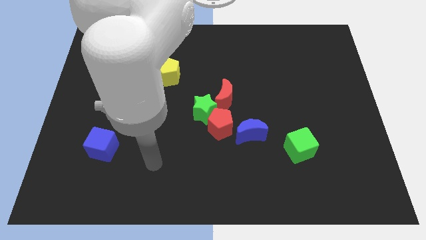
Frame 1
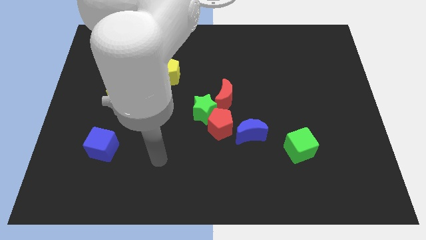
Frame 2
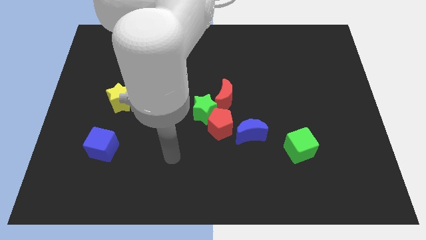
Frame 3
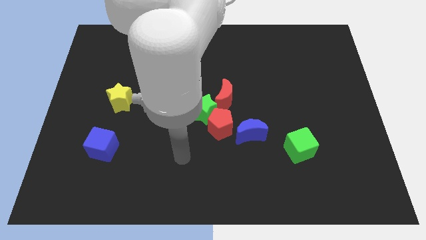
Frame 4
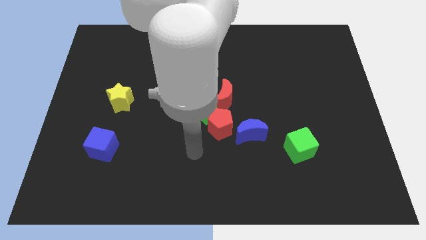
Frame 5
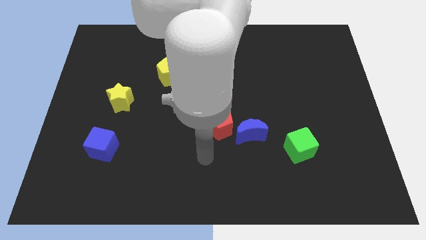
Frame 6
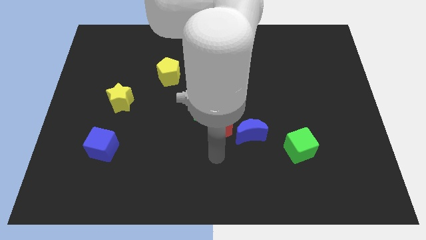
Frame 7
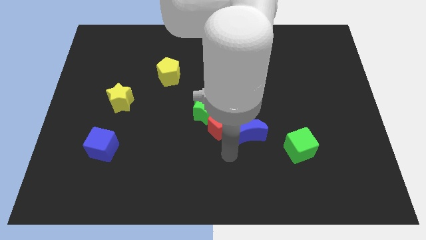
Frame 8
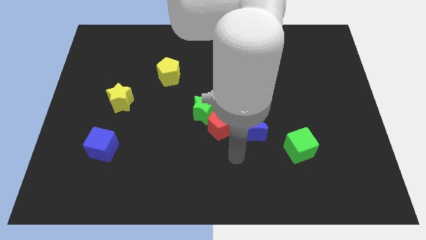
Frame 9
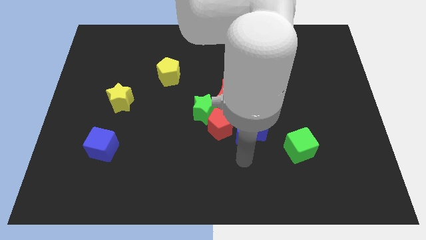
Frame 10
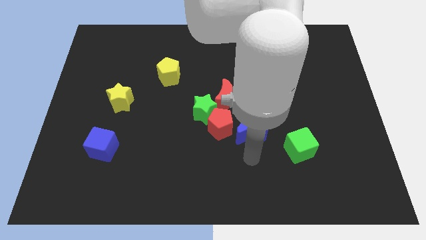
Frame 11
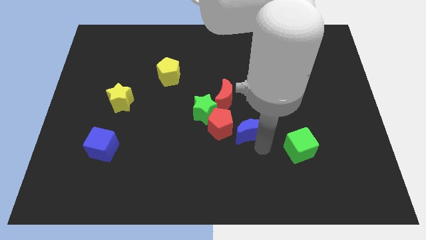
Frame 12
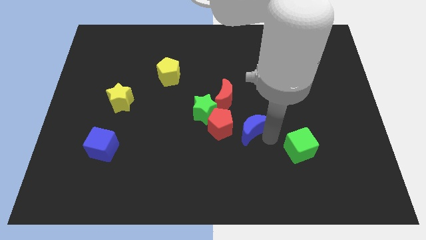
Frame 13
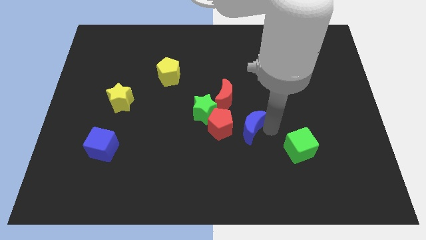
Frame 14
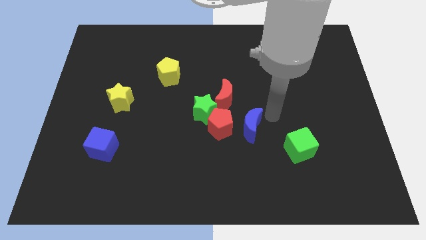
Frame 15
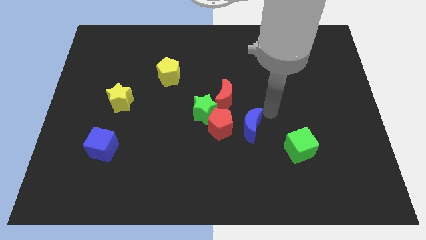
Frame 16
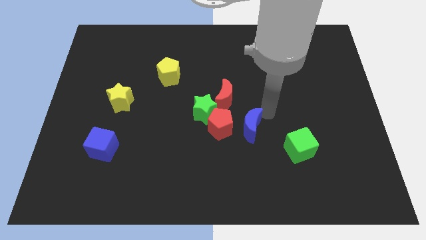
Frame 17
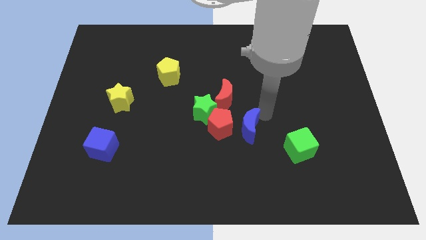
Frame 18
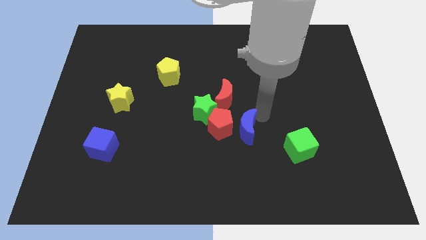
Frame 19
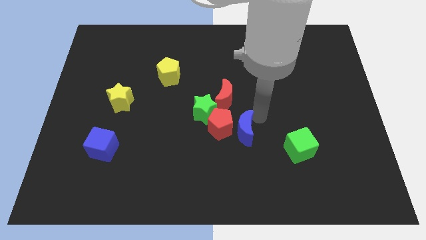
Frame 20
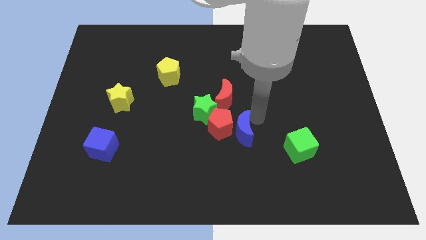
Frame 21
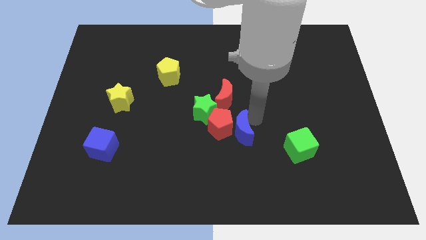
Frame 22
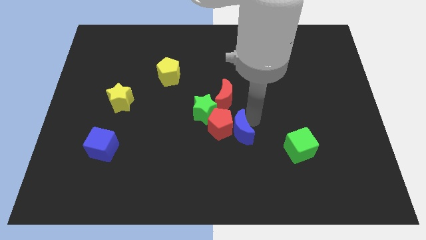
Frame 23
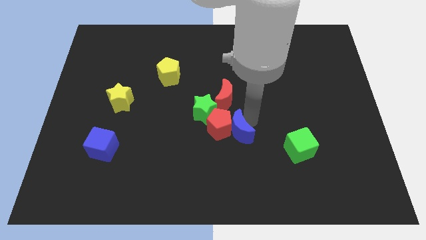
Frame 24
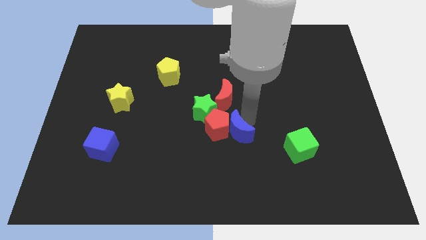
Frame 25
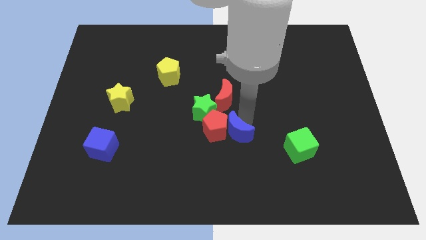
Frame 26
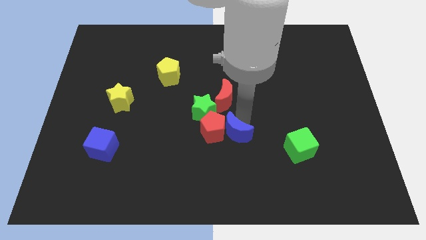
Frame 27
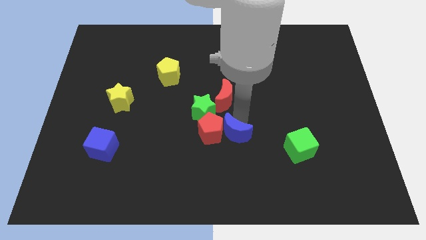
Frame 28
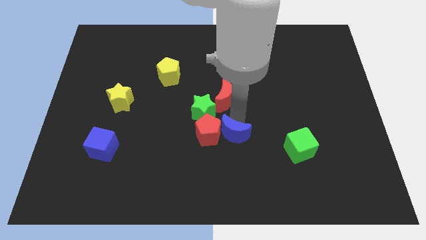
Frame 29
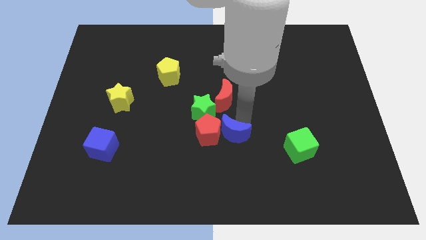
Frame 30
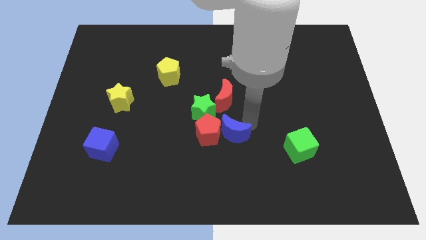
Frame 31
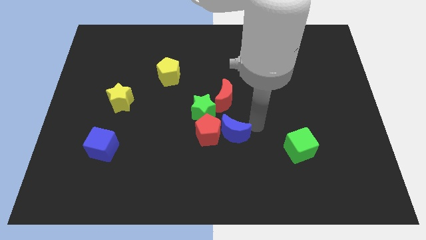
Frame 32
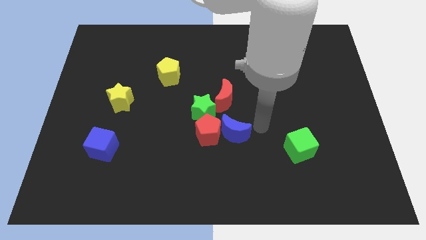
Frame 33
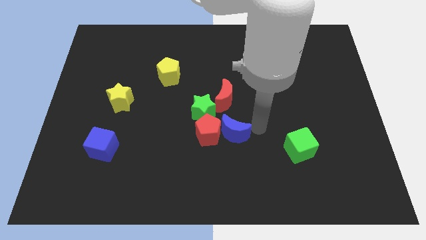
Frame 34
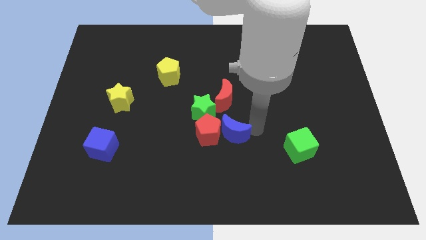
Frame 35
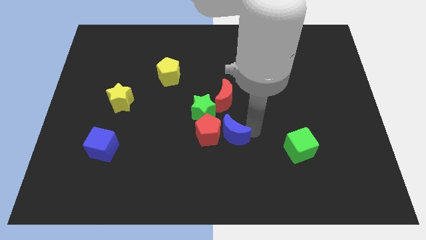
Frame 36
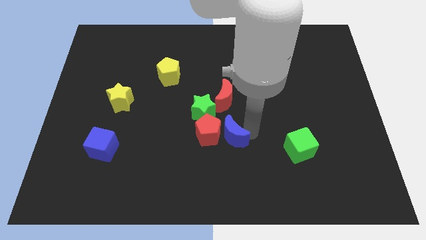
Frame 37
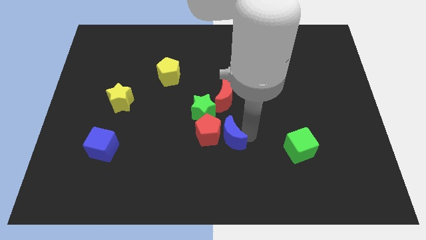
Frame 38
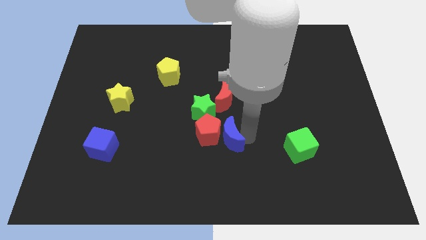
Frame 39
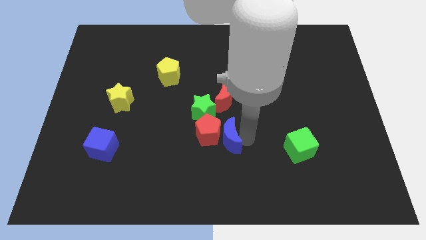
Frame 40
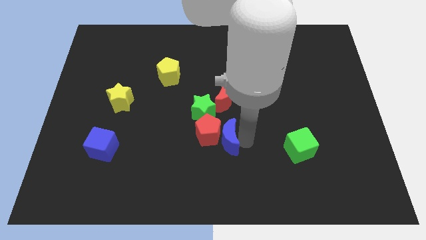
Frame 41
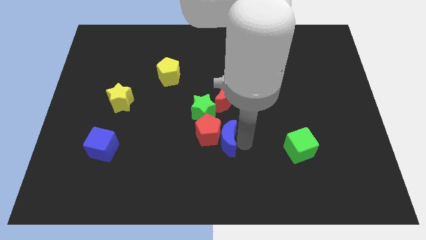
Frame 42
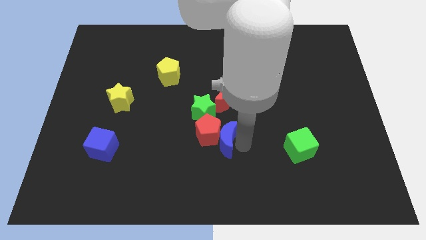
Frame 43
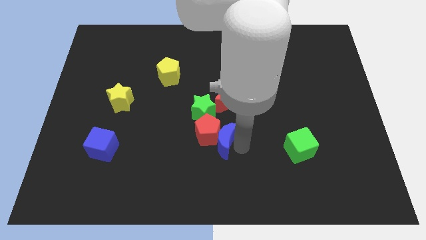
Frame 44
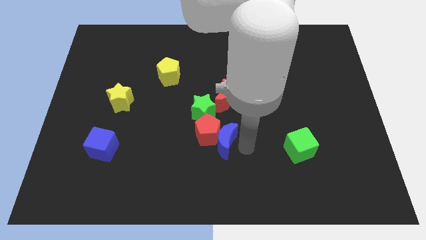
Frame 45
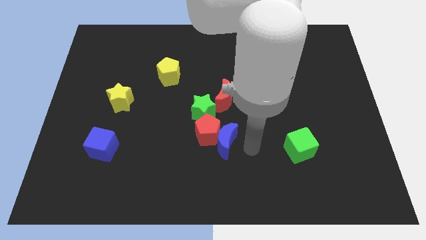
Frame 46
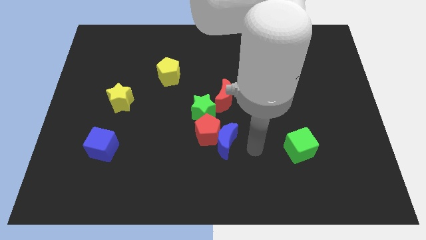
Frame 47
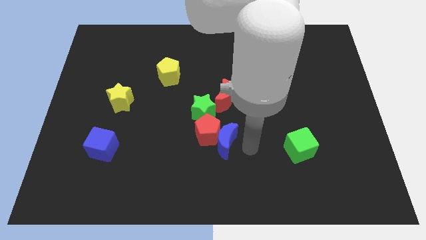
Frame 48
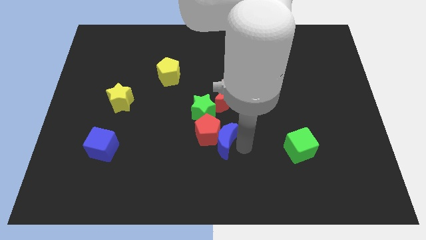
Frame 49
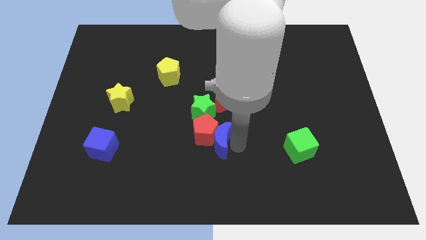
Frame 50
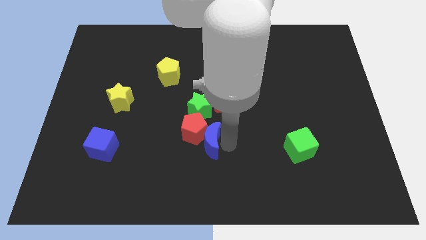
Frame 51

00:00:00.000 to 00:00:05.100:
slide the blue moon a little bit to the left

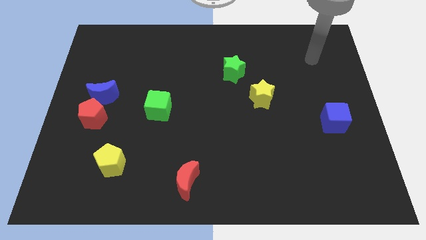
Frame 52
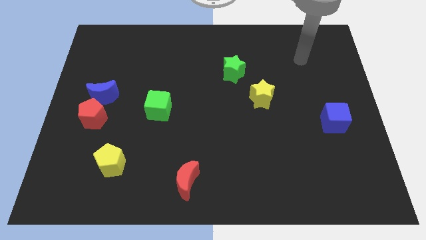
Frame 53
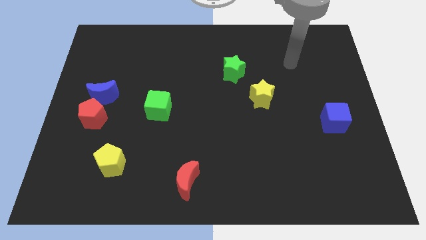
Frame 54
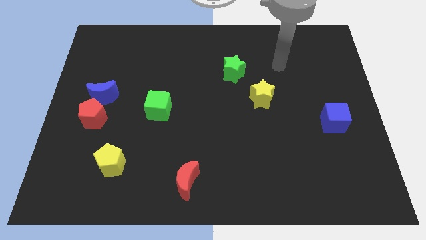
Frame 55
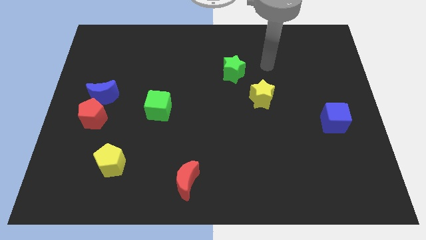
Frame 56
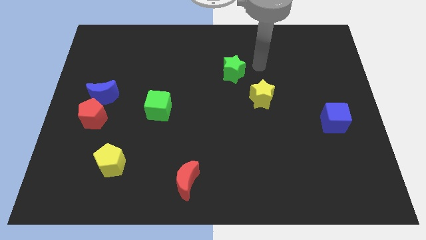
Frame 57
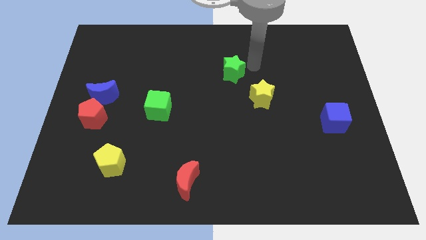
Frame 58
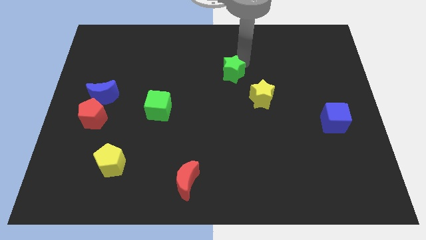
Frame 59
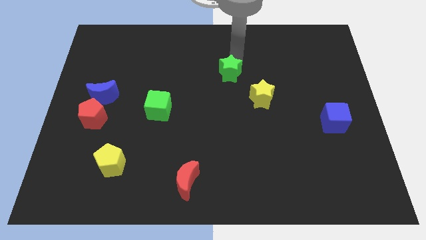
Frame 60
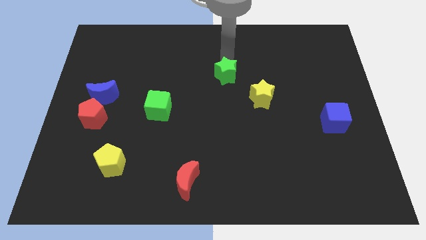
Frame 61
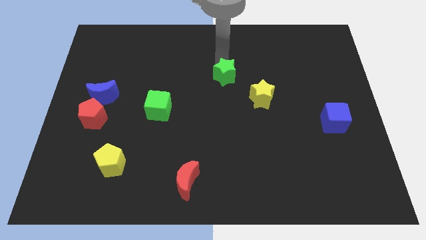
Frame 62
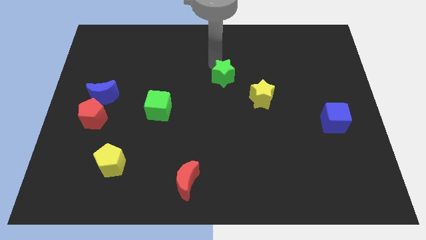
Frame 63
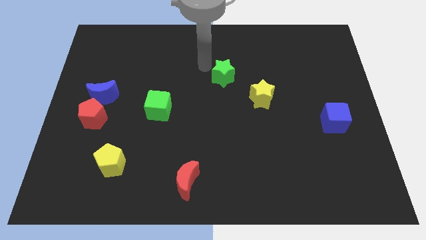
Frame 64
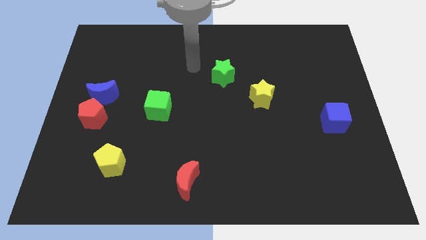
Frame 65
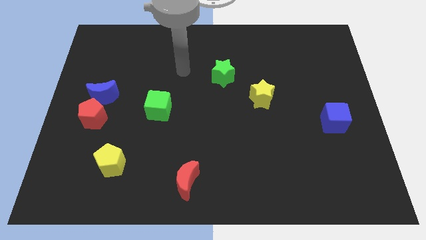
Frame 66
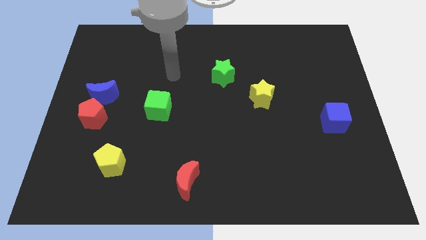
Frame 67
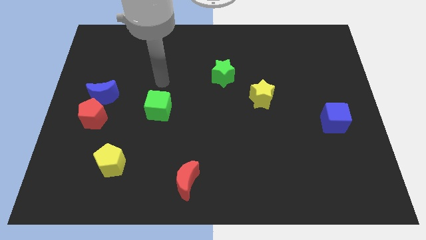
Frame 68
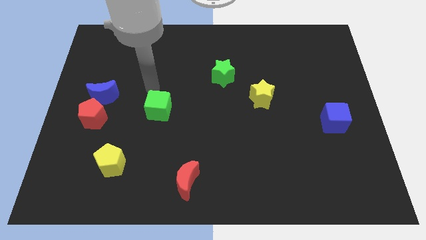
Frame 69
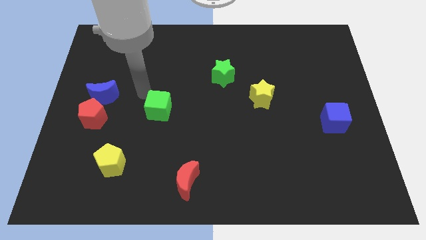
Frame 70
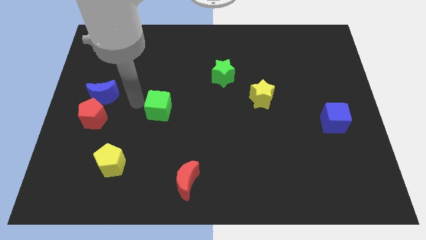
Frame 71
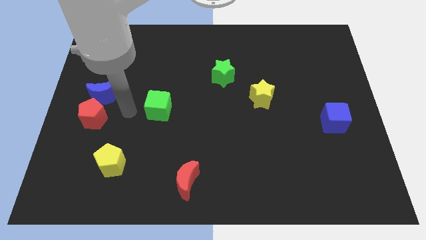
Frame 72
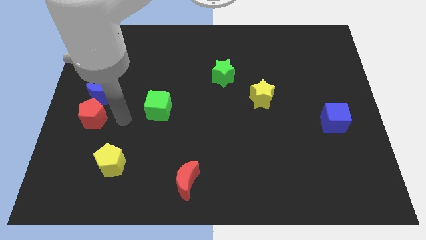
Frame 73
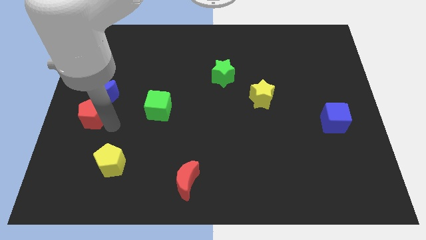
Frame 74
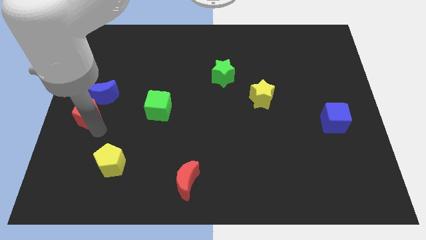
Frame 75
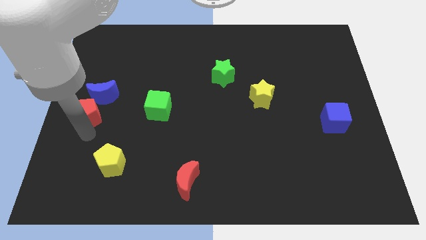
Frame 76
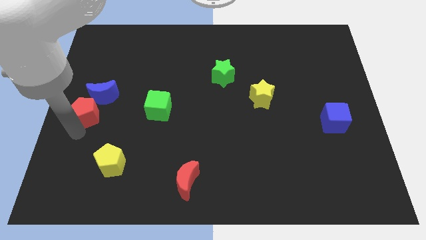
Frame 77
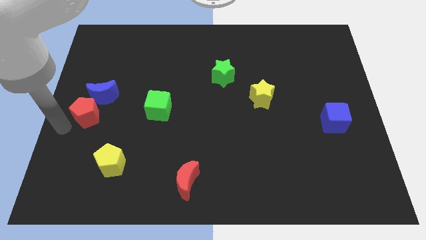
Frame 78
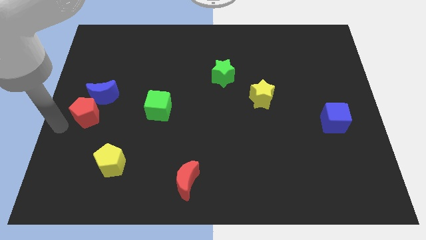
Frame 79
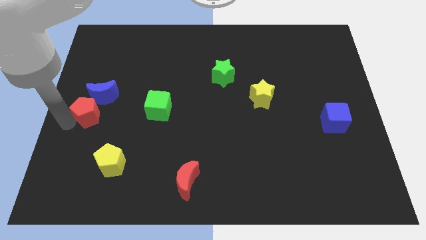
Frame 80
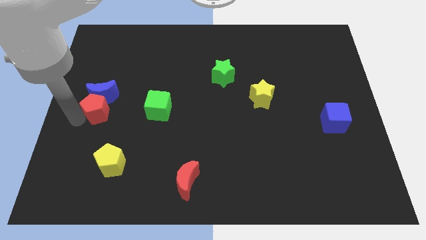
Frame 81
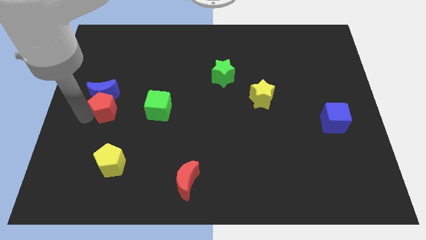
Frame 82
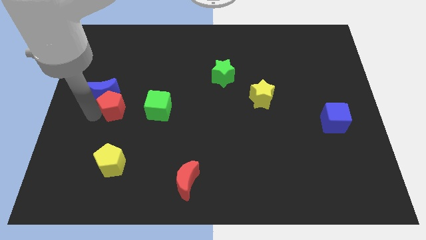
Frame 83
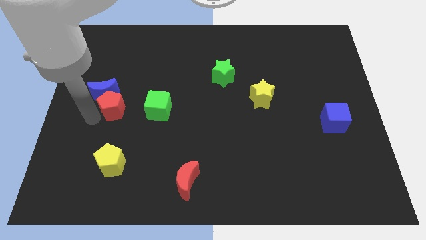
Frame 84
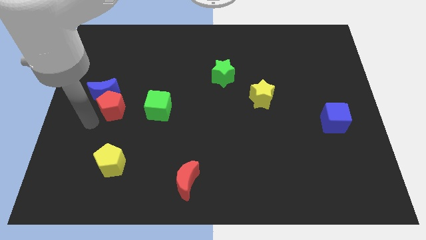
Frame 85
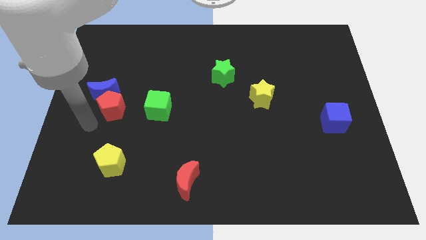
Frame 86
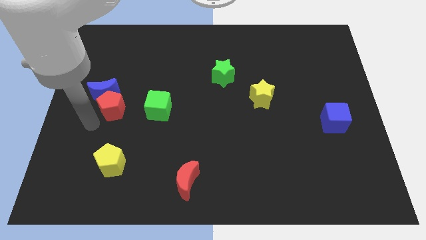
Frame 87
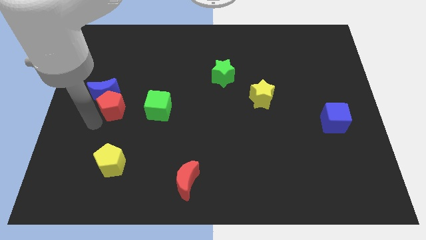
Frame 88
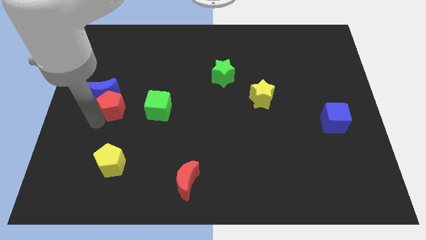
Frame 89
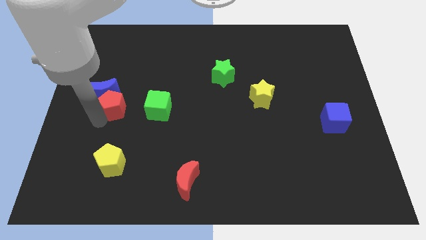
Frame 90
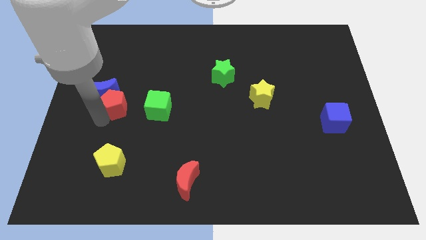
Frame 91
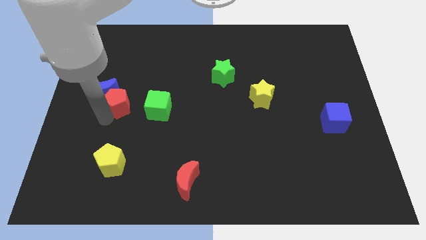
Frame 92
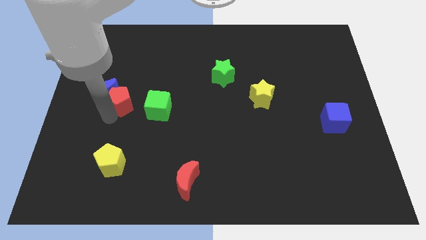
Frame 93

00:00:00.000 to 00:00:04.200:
move the red pentagon diagonally up and to the right a bit
